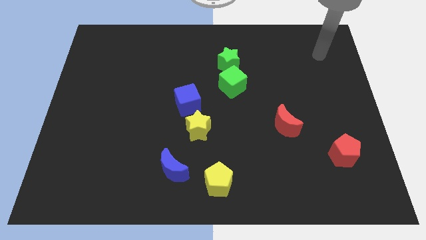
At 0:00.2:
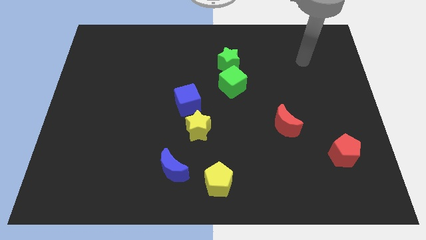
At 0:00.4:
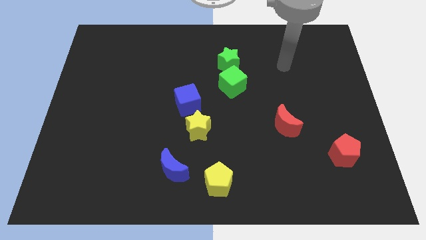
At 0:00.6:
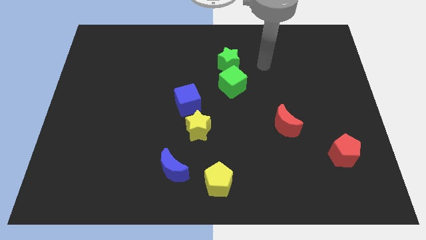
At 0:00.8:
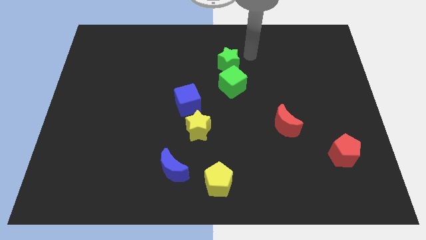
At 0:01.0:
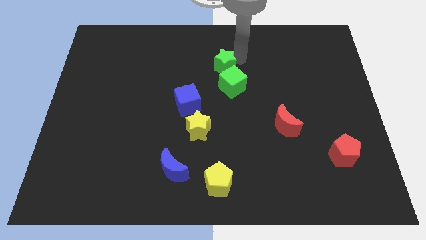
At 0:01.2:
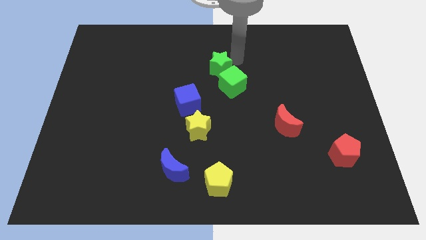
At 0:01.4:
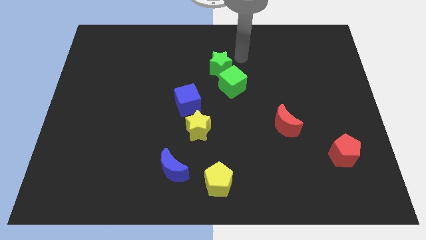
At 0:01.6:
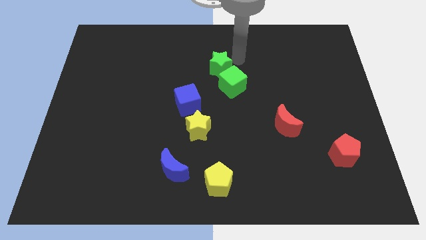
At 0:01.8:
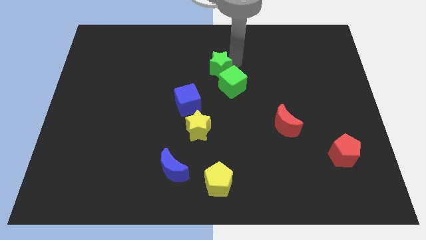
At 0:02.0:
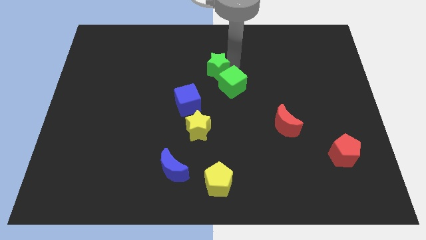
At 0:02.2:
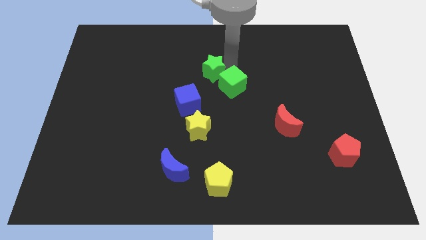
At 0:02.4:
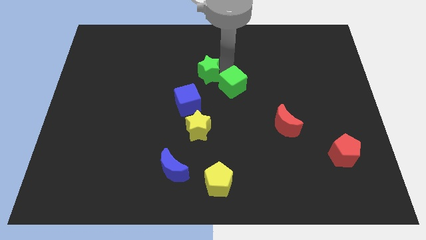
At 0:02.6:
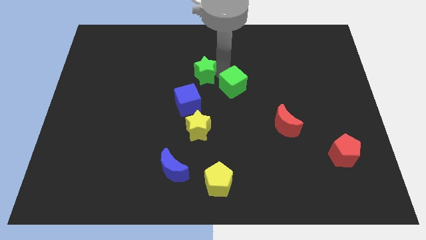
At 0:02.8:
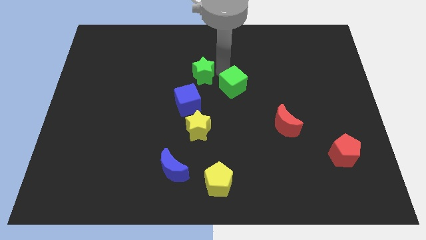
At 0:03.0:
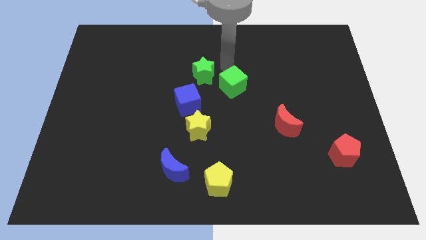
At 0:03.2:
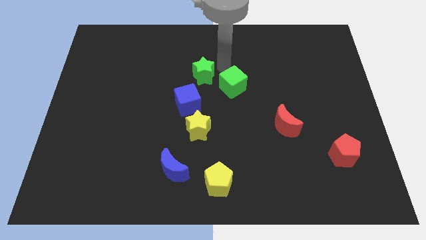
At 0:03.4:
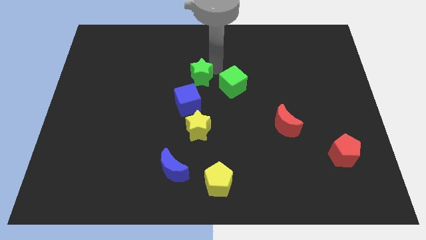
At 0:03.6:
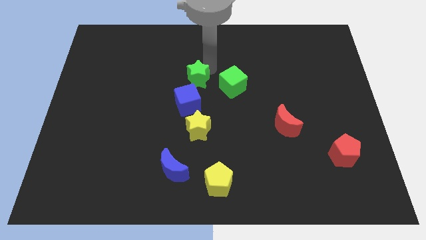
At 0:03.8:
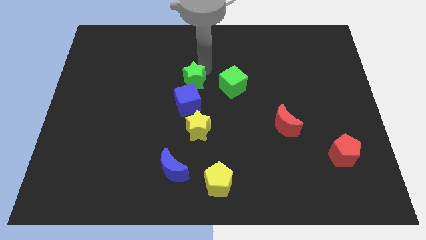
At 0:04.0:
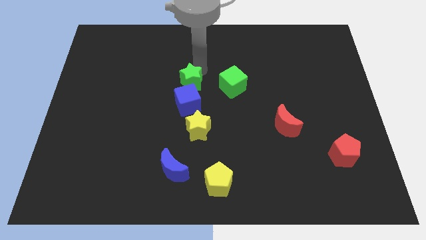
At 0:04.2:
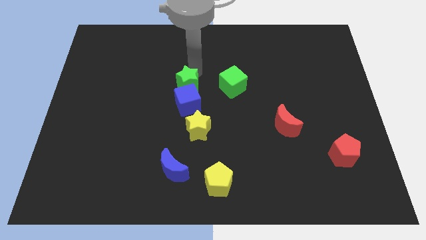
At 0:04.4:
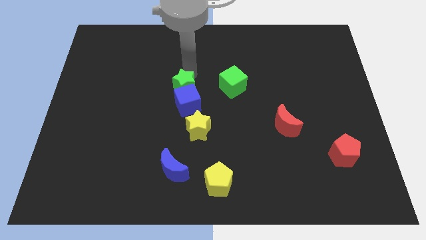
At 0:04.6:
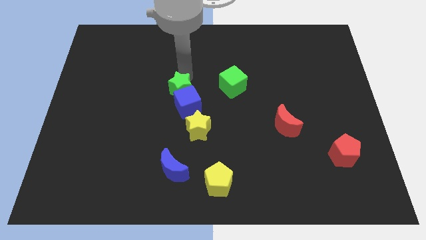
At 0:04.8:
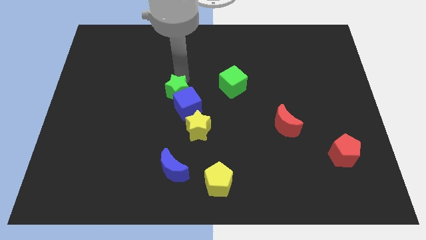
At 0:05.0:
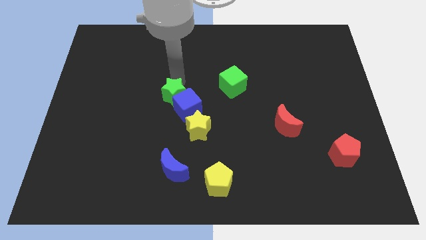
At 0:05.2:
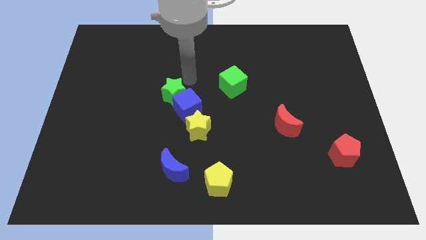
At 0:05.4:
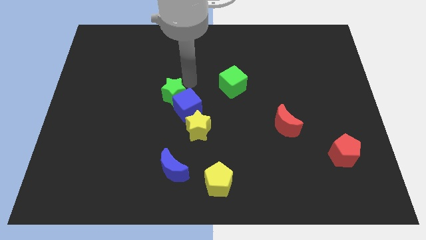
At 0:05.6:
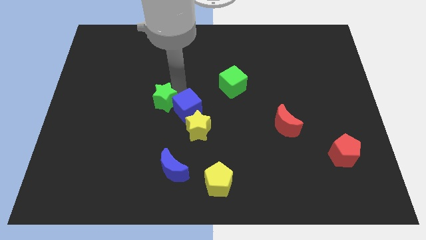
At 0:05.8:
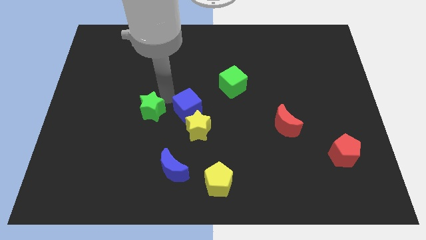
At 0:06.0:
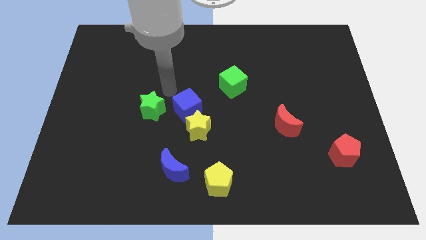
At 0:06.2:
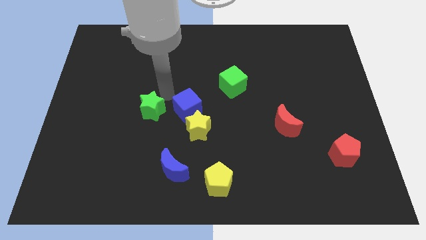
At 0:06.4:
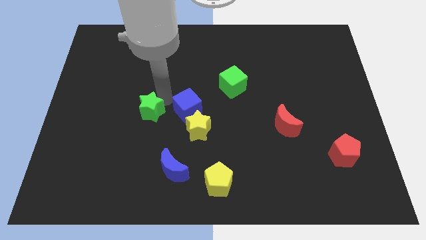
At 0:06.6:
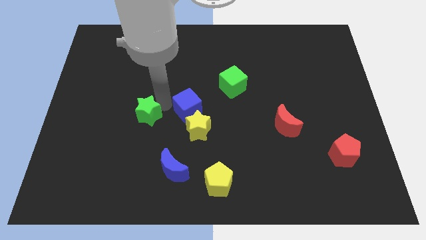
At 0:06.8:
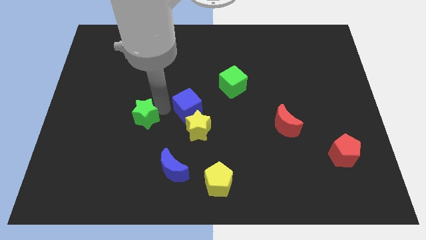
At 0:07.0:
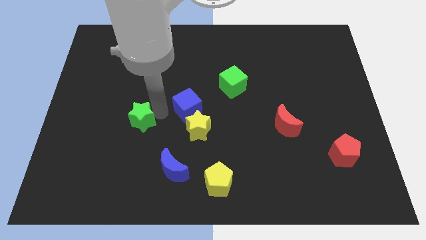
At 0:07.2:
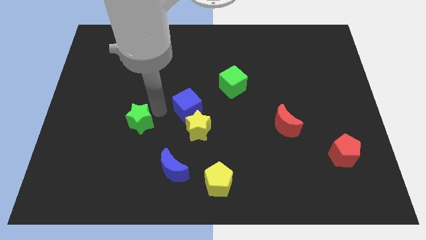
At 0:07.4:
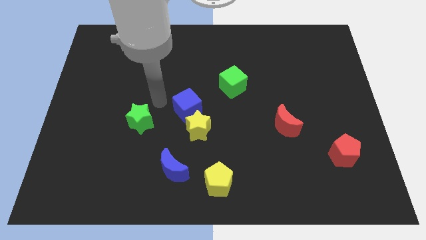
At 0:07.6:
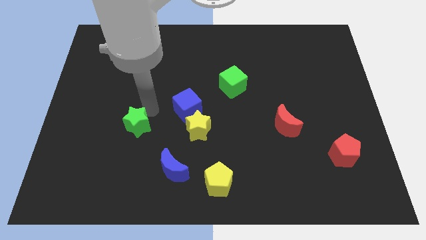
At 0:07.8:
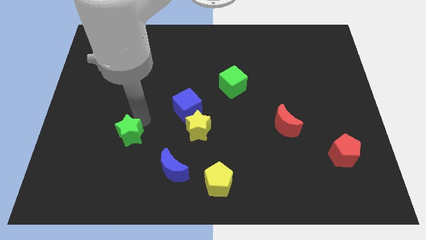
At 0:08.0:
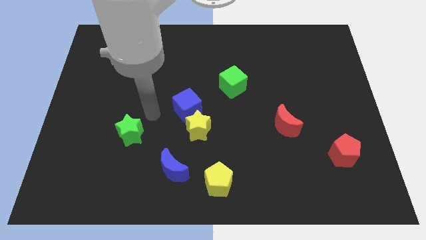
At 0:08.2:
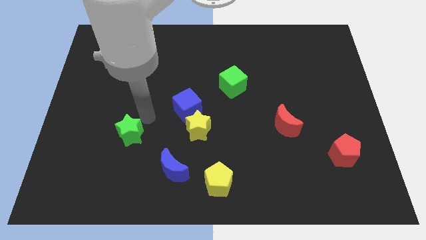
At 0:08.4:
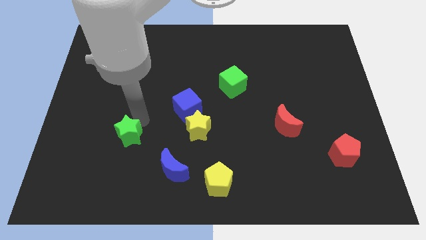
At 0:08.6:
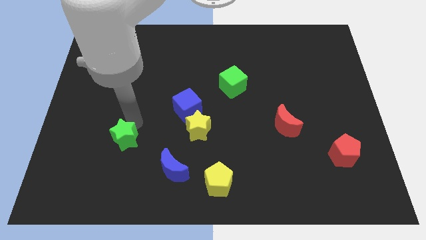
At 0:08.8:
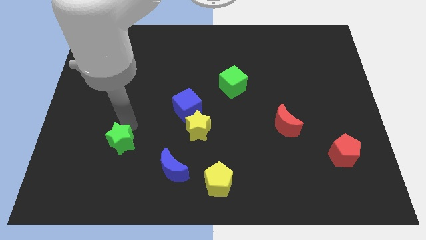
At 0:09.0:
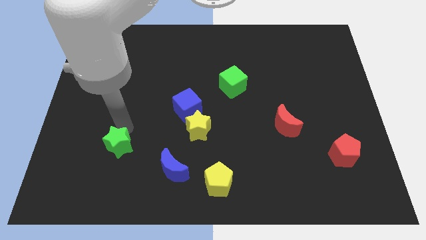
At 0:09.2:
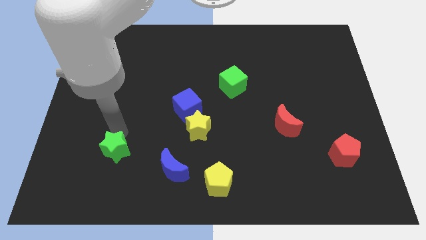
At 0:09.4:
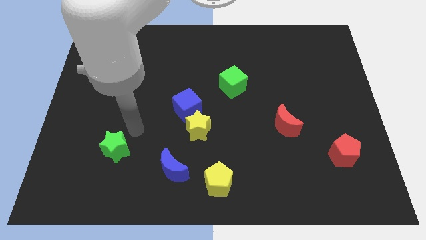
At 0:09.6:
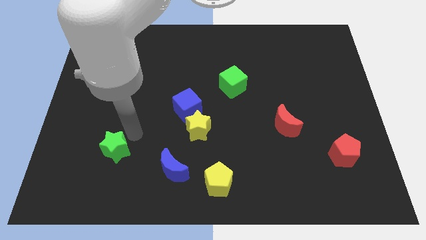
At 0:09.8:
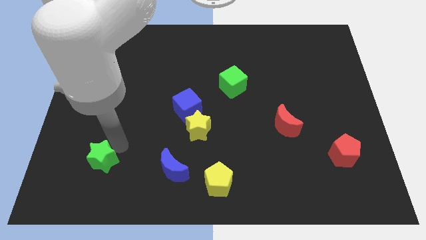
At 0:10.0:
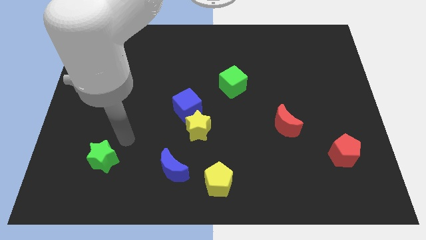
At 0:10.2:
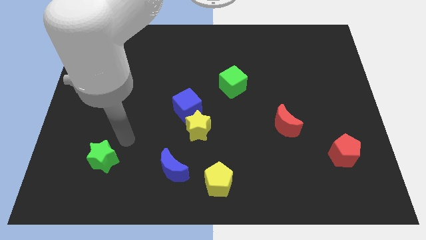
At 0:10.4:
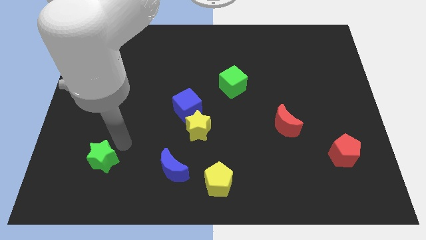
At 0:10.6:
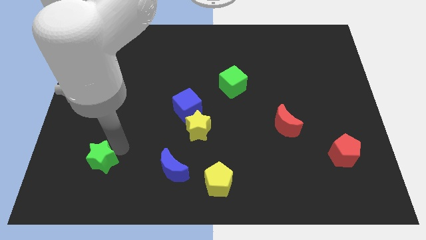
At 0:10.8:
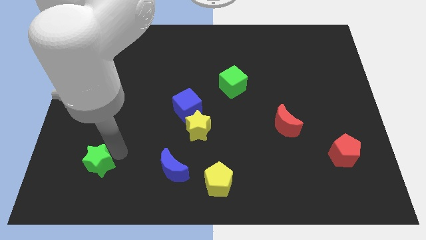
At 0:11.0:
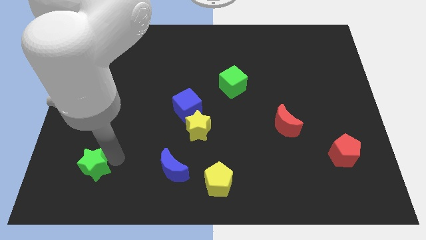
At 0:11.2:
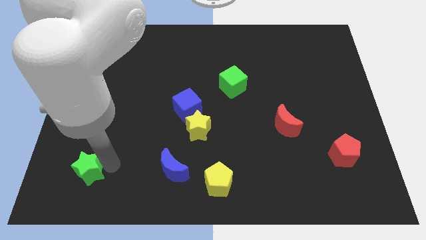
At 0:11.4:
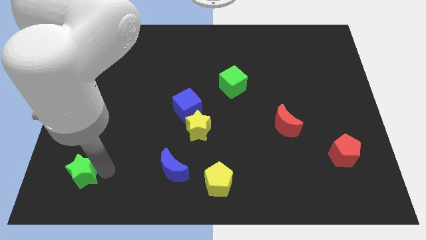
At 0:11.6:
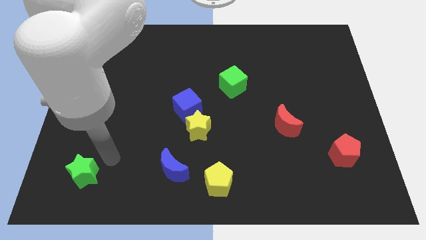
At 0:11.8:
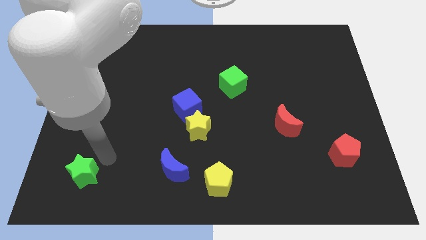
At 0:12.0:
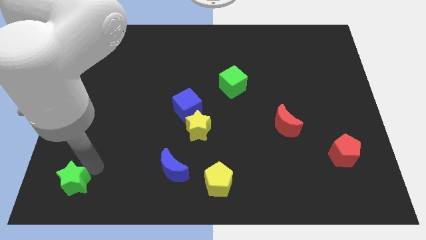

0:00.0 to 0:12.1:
put the green star to the lower left corner
